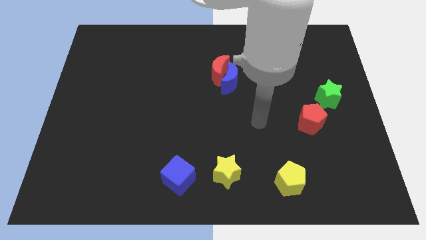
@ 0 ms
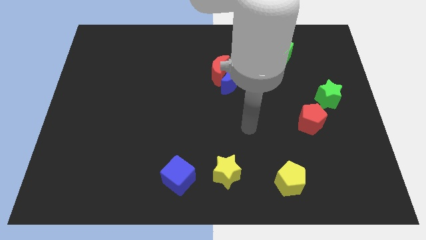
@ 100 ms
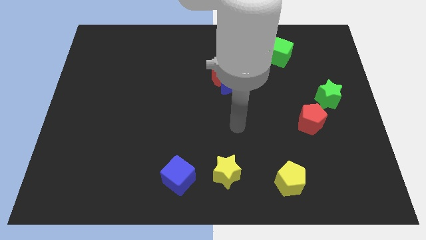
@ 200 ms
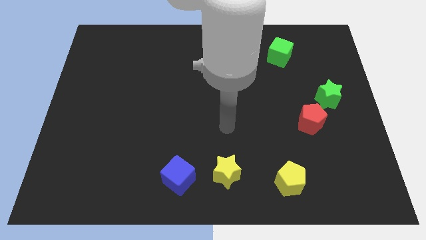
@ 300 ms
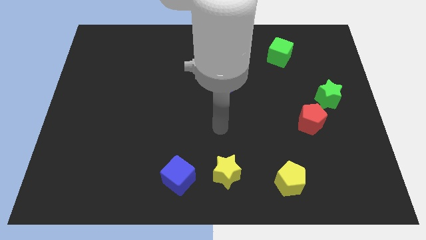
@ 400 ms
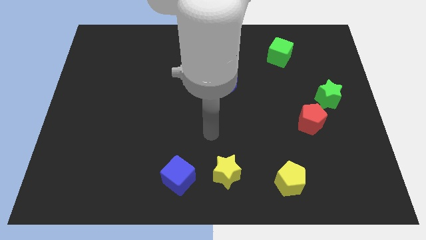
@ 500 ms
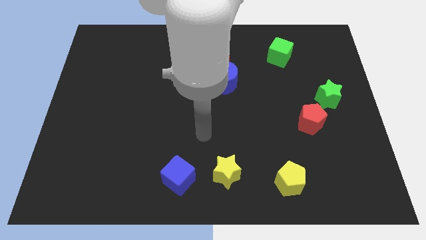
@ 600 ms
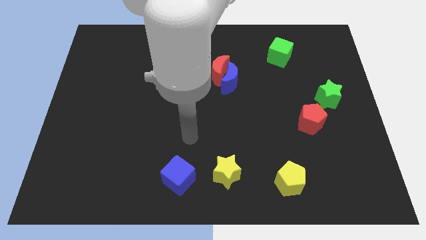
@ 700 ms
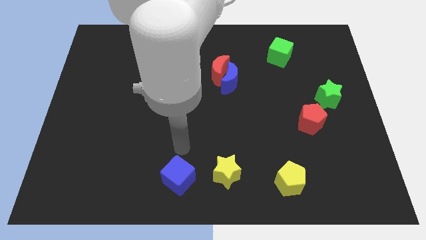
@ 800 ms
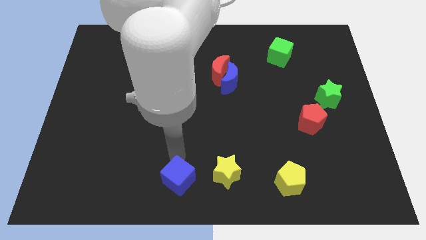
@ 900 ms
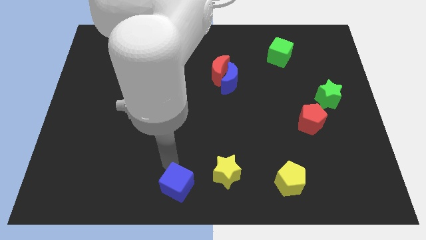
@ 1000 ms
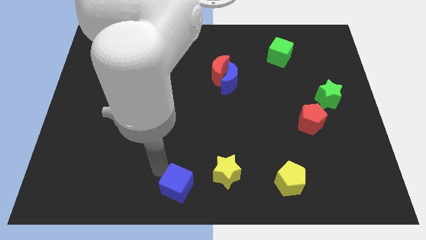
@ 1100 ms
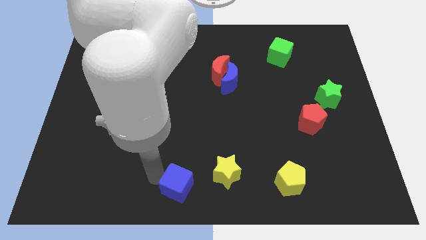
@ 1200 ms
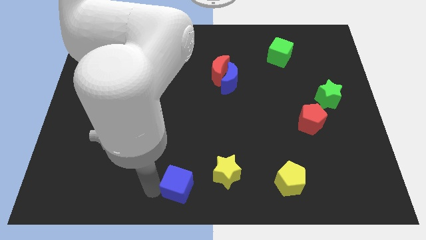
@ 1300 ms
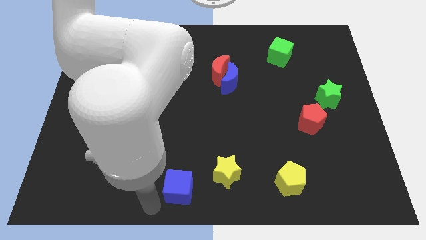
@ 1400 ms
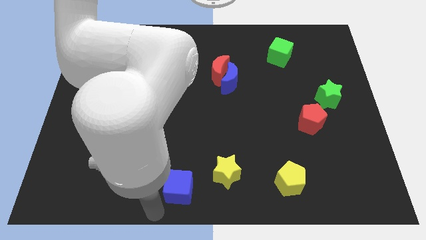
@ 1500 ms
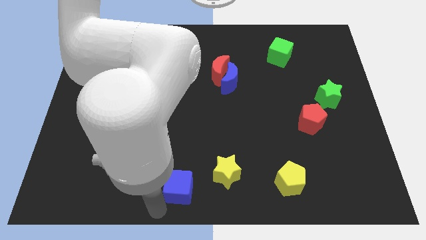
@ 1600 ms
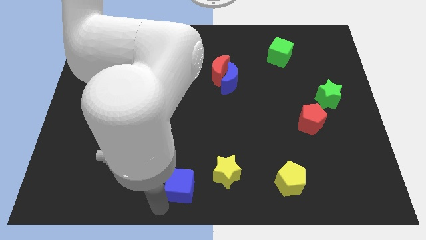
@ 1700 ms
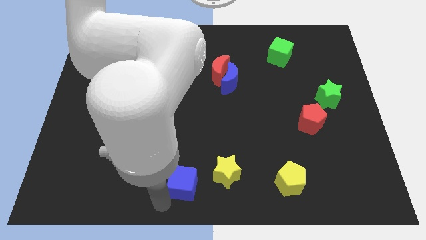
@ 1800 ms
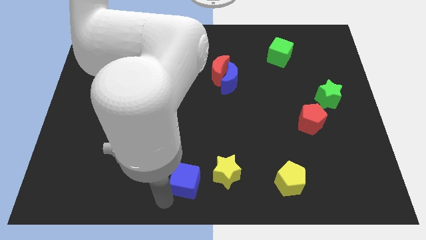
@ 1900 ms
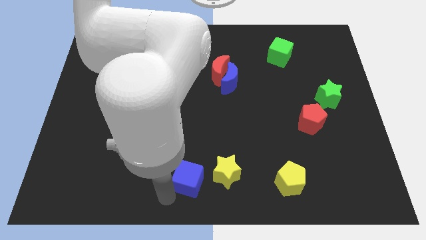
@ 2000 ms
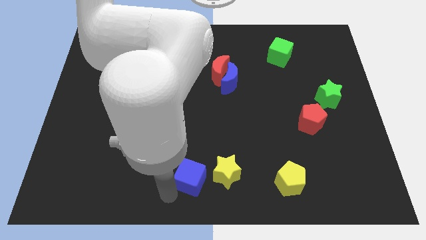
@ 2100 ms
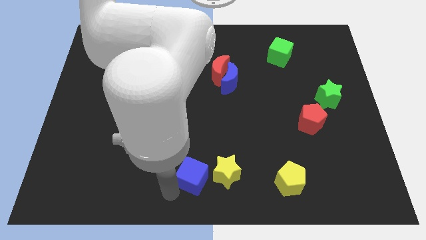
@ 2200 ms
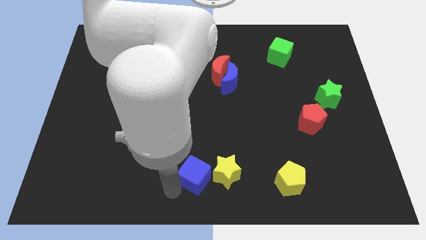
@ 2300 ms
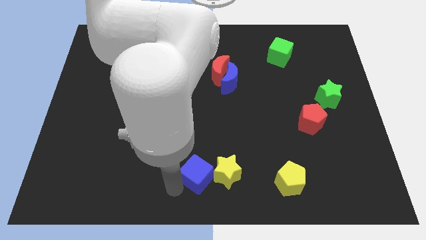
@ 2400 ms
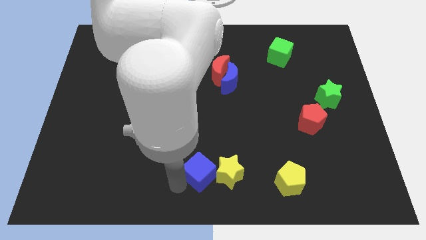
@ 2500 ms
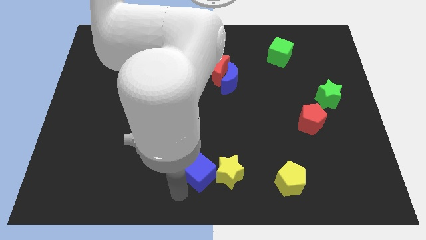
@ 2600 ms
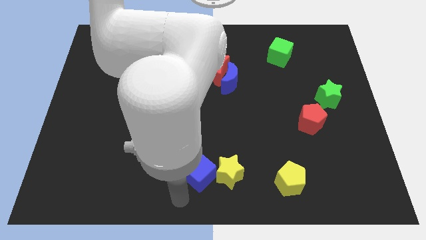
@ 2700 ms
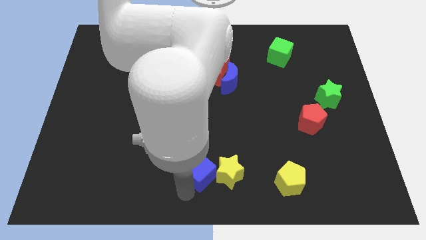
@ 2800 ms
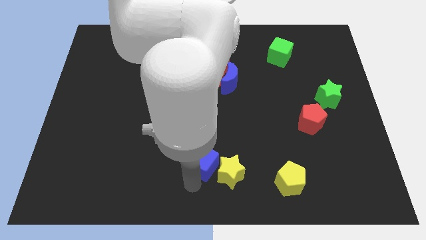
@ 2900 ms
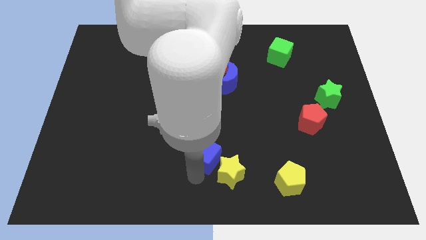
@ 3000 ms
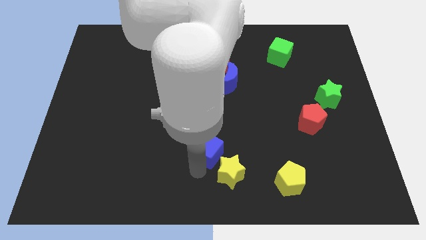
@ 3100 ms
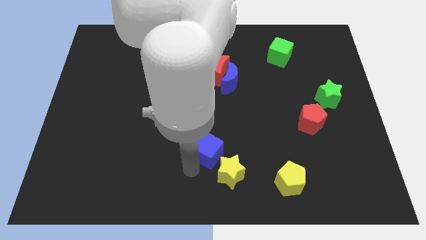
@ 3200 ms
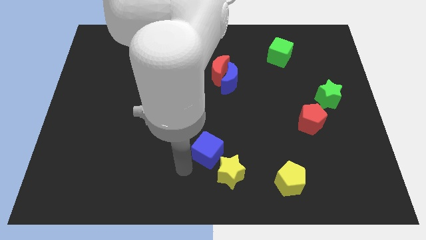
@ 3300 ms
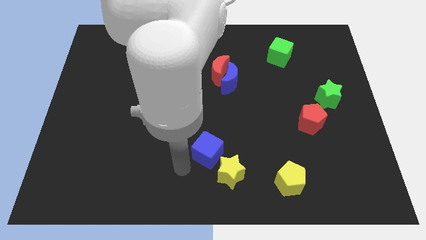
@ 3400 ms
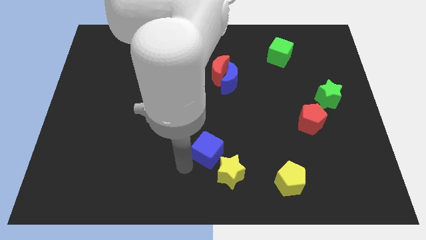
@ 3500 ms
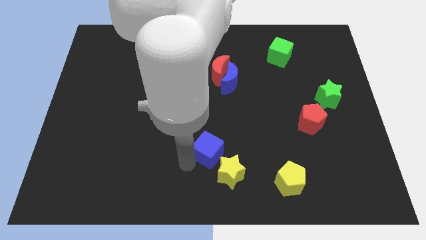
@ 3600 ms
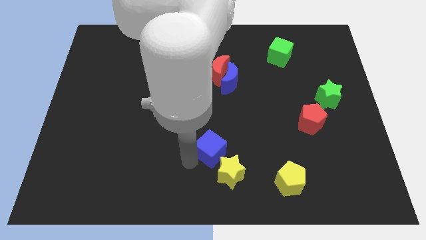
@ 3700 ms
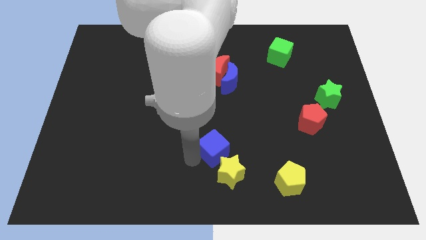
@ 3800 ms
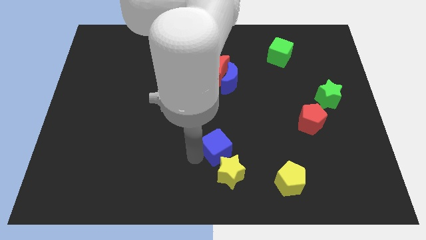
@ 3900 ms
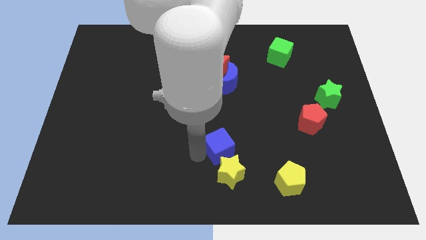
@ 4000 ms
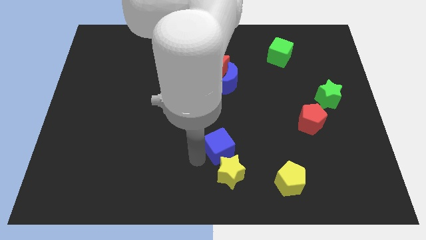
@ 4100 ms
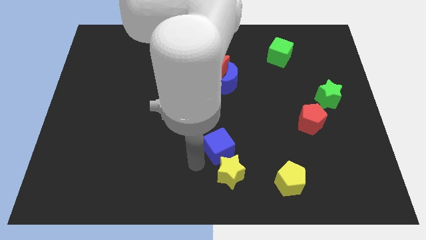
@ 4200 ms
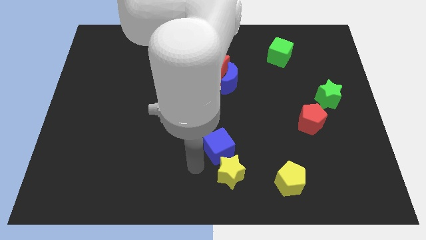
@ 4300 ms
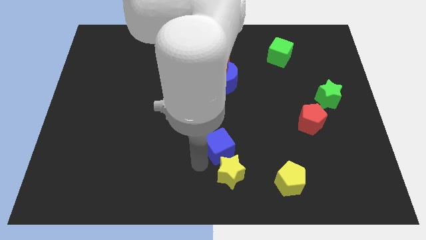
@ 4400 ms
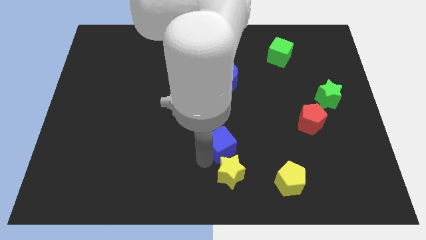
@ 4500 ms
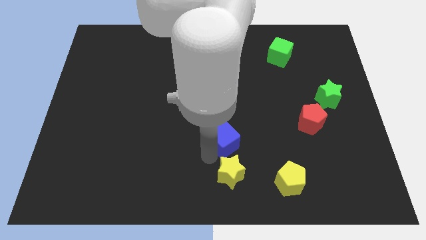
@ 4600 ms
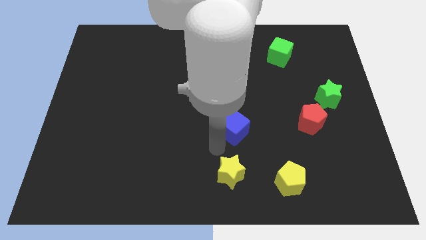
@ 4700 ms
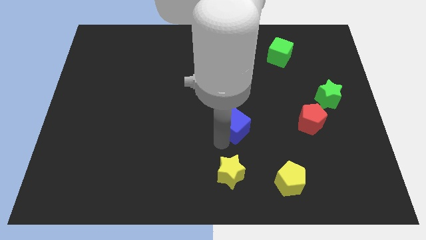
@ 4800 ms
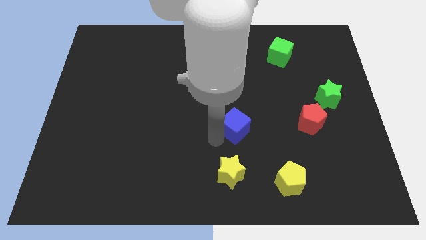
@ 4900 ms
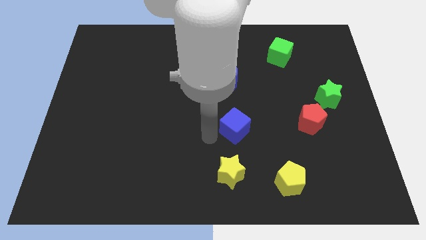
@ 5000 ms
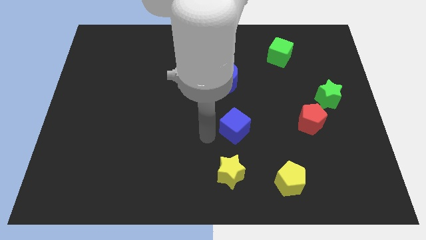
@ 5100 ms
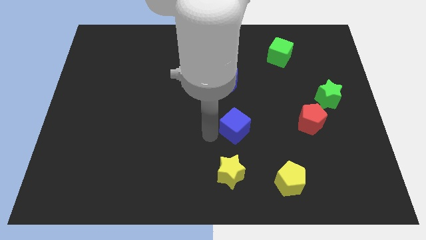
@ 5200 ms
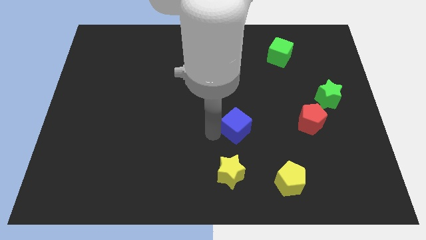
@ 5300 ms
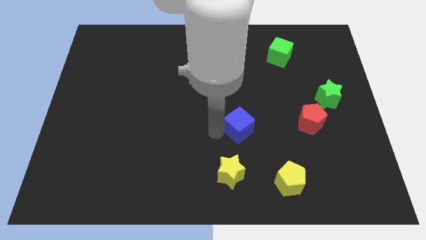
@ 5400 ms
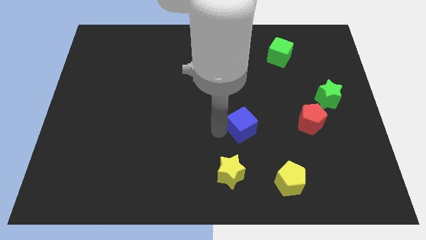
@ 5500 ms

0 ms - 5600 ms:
put the blue cube to the left side of the red pentagon

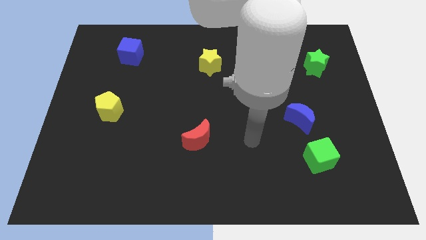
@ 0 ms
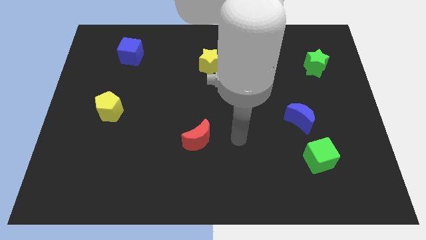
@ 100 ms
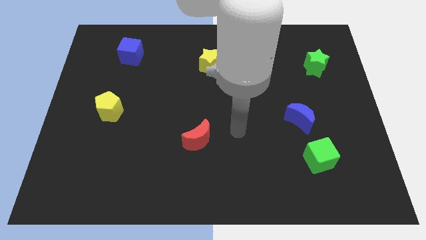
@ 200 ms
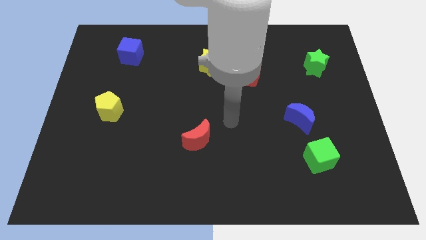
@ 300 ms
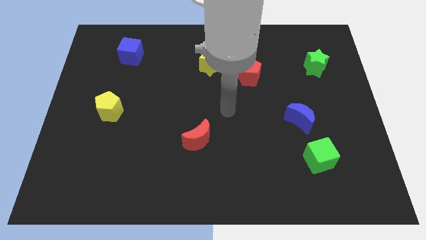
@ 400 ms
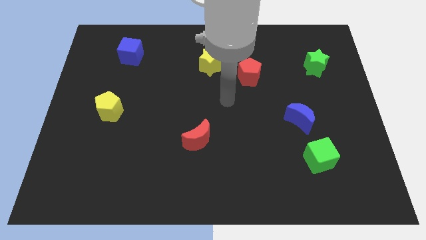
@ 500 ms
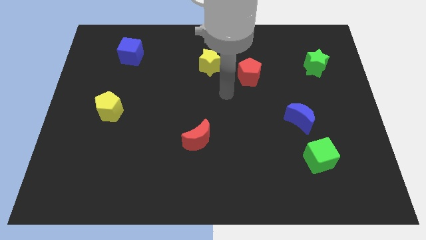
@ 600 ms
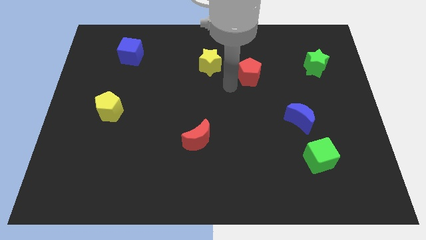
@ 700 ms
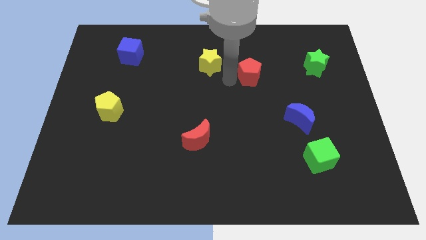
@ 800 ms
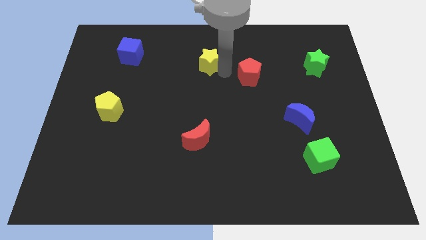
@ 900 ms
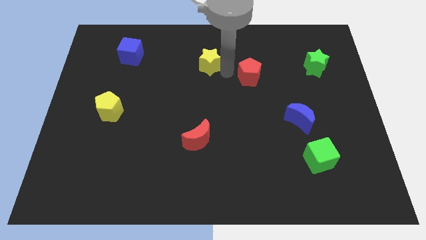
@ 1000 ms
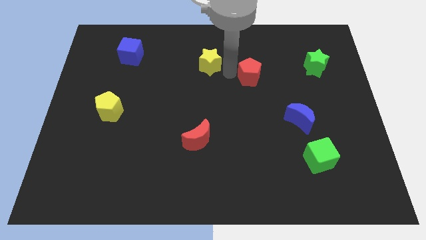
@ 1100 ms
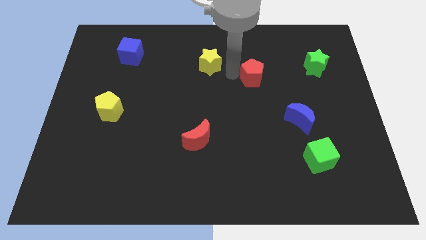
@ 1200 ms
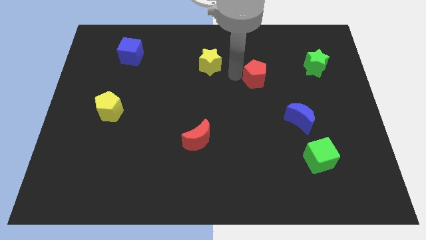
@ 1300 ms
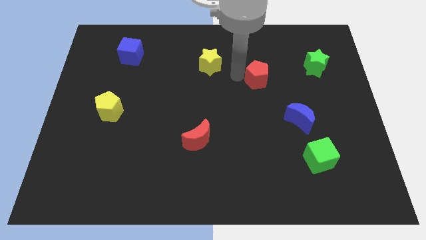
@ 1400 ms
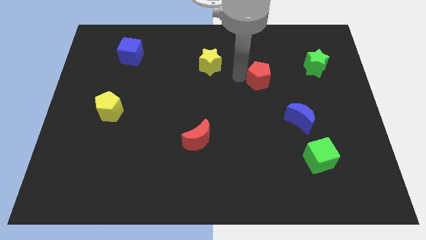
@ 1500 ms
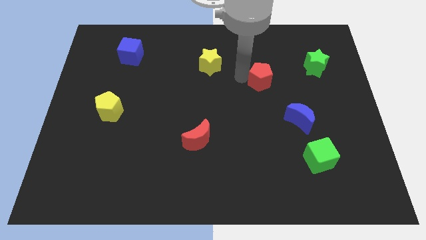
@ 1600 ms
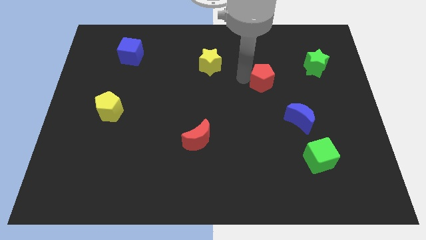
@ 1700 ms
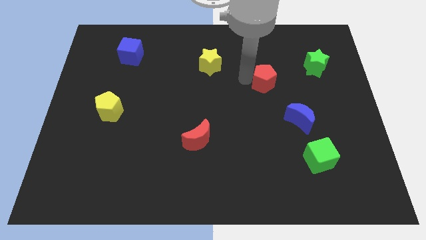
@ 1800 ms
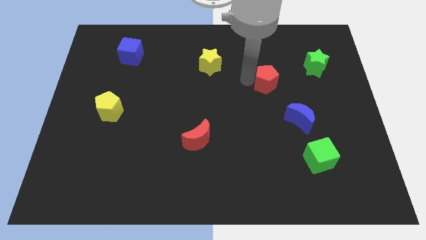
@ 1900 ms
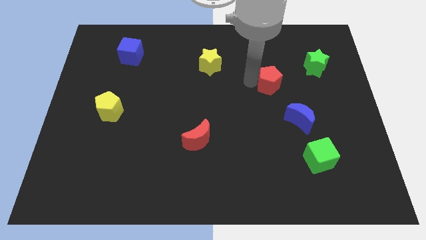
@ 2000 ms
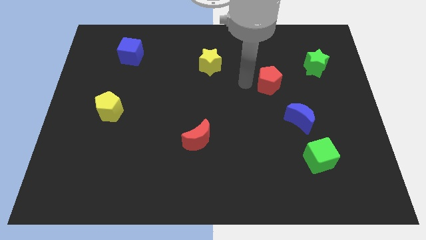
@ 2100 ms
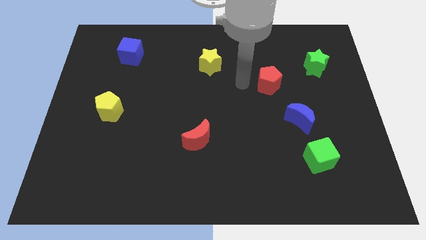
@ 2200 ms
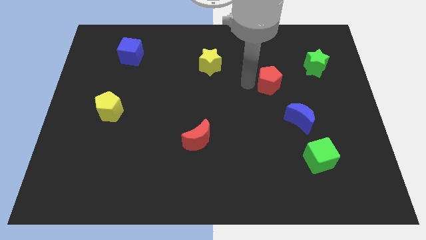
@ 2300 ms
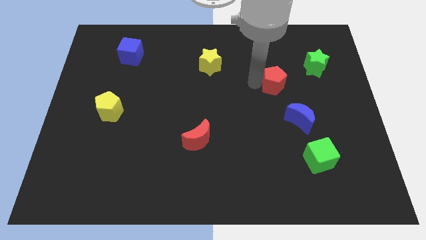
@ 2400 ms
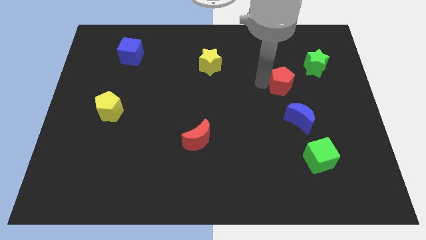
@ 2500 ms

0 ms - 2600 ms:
move the red pentagon to the bottom left side of the green star
